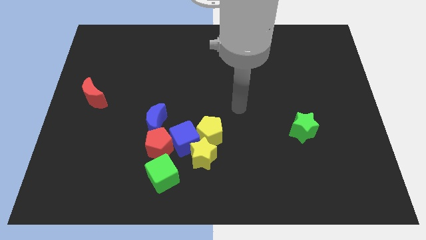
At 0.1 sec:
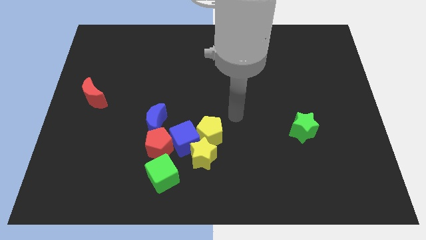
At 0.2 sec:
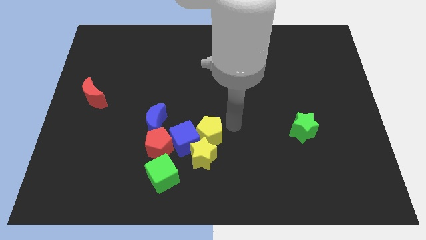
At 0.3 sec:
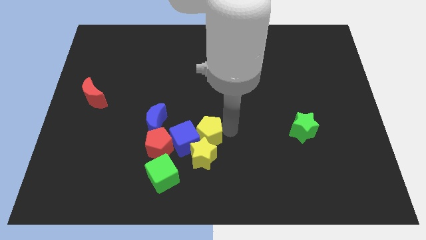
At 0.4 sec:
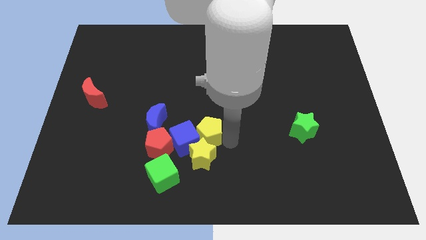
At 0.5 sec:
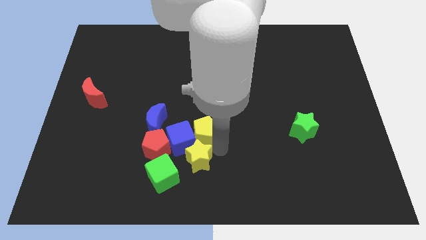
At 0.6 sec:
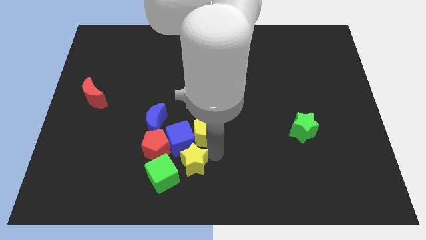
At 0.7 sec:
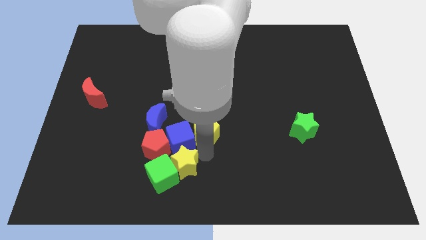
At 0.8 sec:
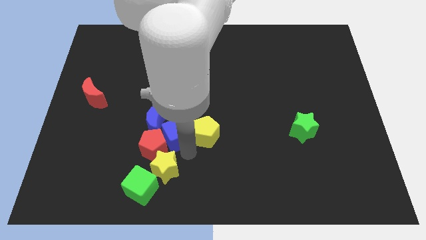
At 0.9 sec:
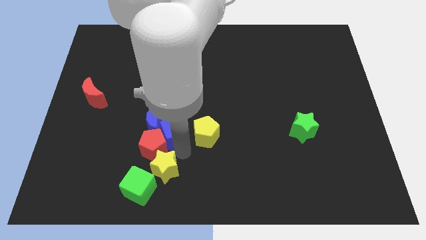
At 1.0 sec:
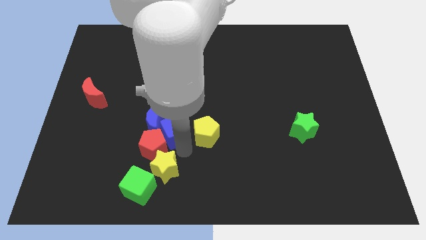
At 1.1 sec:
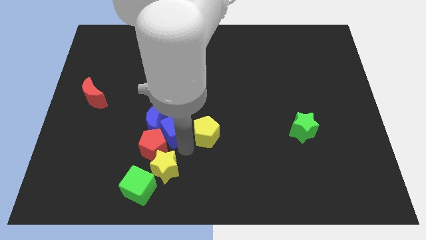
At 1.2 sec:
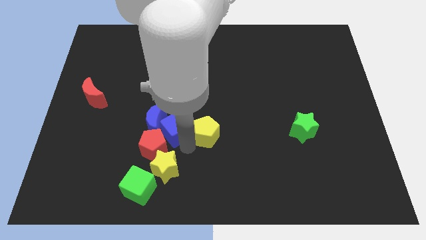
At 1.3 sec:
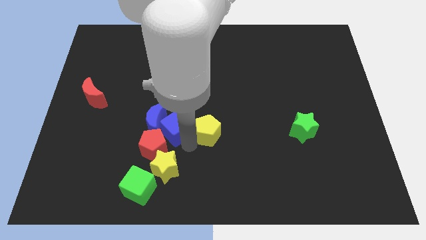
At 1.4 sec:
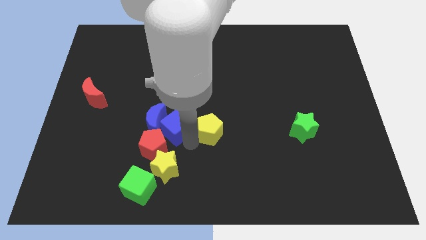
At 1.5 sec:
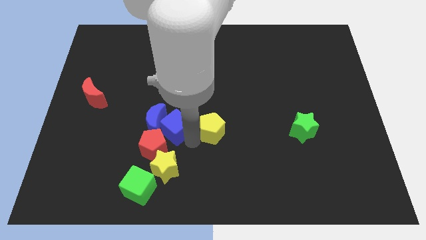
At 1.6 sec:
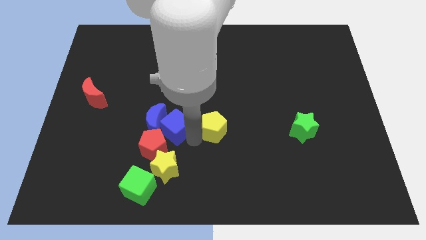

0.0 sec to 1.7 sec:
move the yellow pentagon away from the blue cube and yellow star

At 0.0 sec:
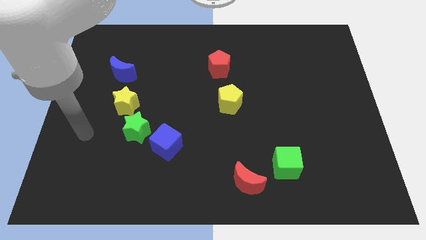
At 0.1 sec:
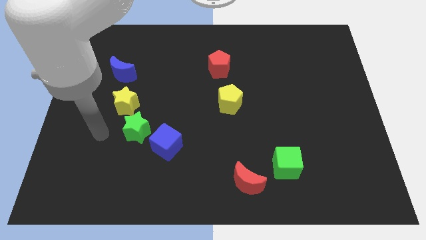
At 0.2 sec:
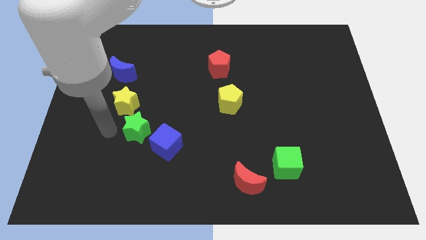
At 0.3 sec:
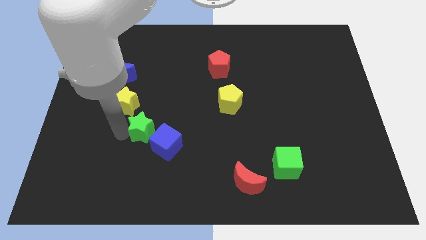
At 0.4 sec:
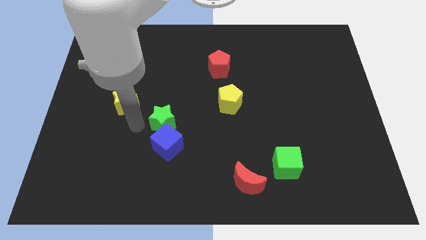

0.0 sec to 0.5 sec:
move the yellow star away from the green star

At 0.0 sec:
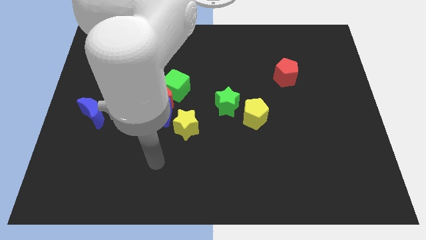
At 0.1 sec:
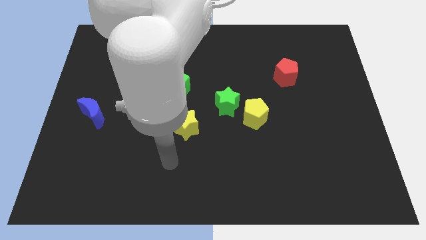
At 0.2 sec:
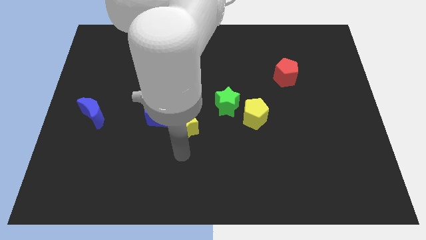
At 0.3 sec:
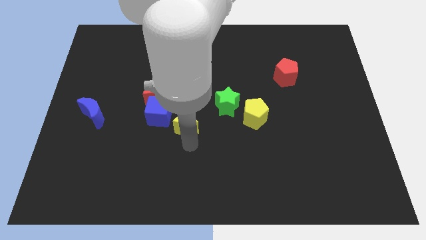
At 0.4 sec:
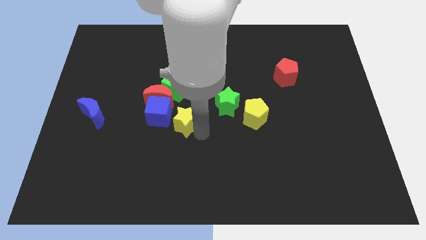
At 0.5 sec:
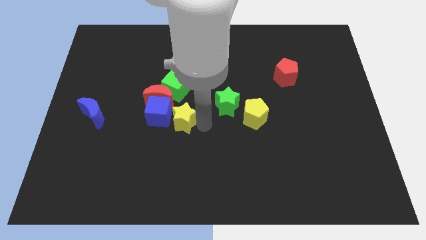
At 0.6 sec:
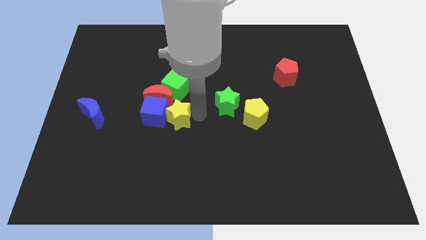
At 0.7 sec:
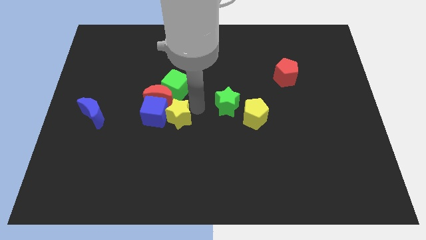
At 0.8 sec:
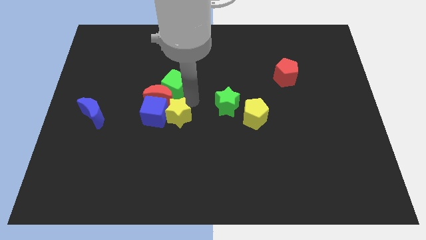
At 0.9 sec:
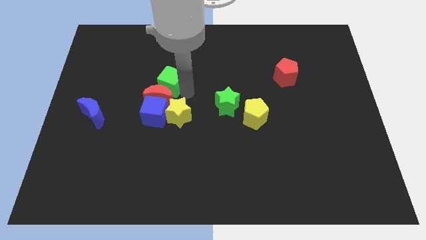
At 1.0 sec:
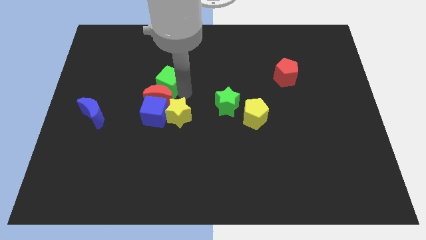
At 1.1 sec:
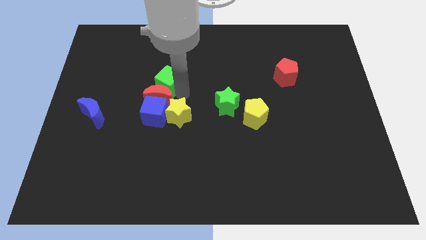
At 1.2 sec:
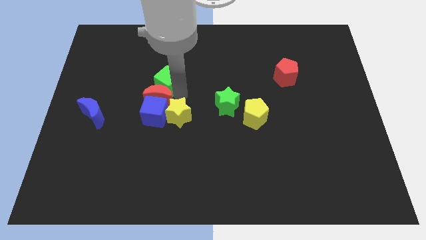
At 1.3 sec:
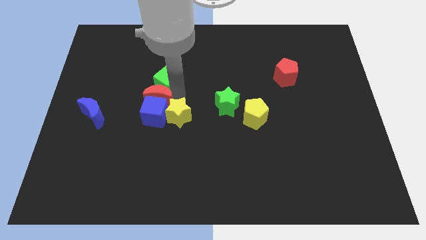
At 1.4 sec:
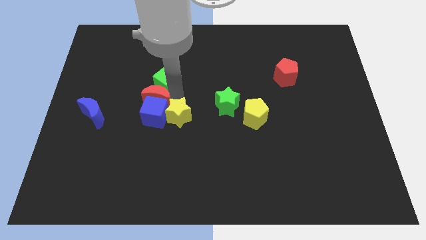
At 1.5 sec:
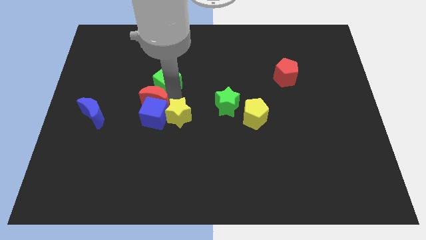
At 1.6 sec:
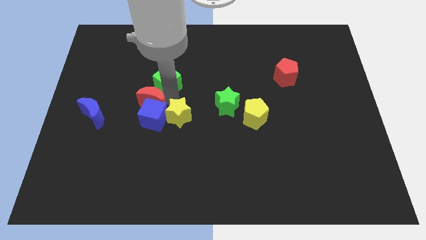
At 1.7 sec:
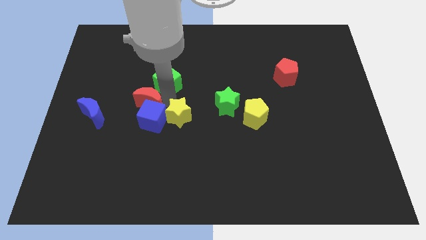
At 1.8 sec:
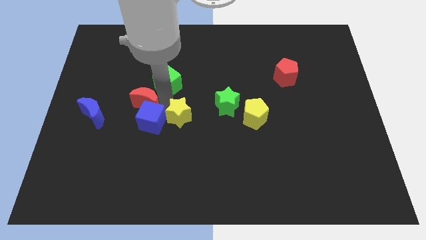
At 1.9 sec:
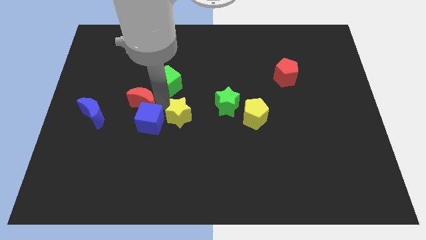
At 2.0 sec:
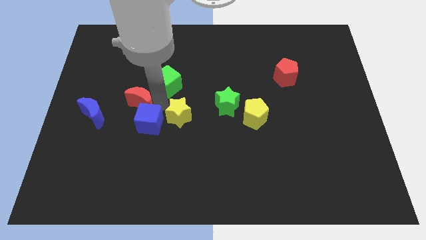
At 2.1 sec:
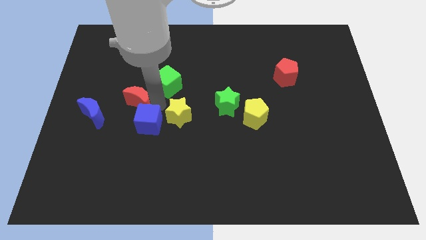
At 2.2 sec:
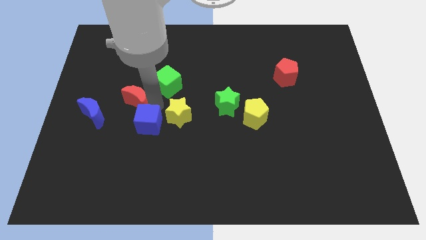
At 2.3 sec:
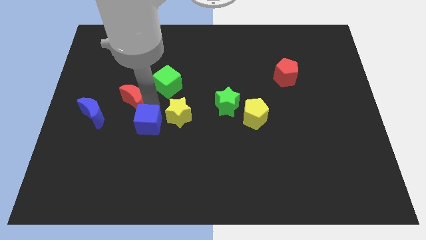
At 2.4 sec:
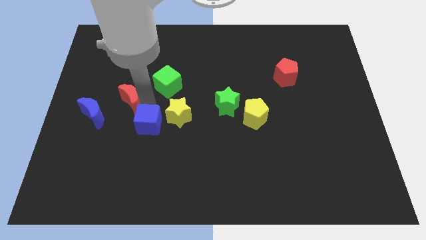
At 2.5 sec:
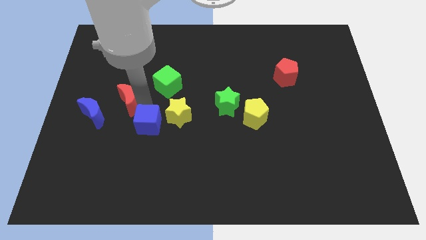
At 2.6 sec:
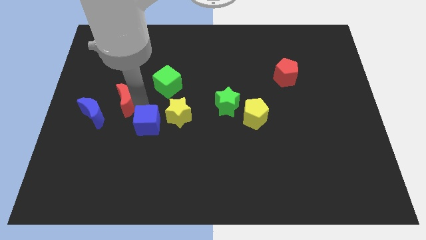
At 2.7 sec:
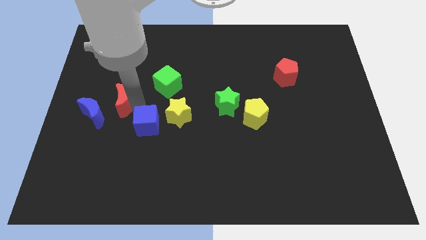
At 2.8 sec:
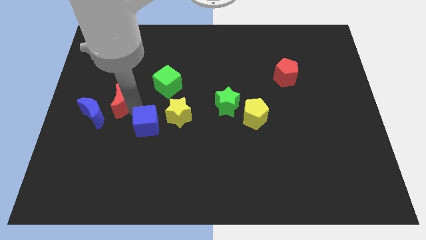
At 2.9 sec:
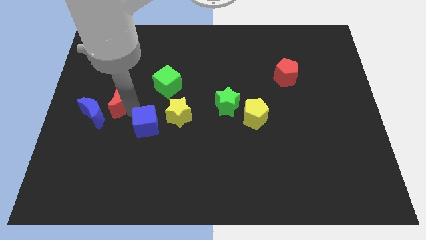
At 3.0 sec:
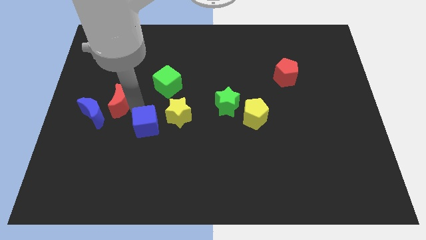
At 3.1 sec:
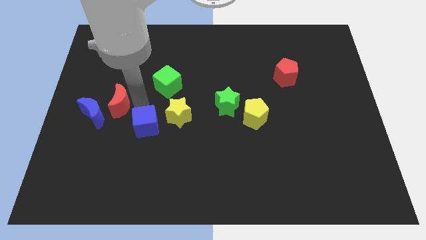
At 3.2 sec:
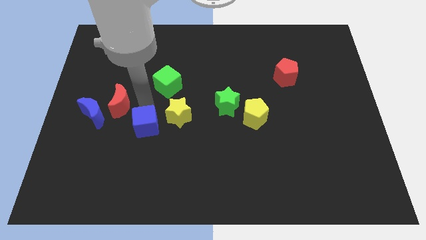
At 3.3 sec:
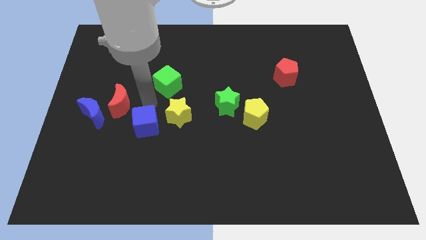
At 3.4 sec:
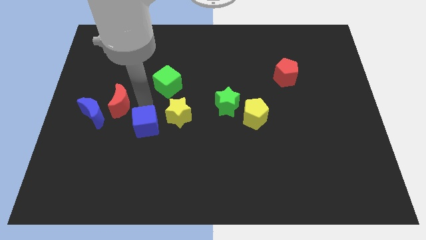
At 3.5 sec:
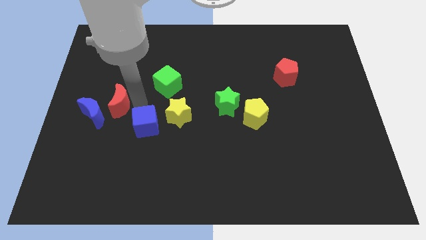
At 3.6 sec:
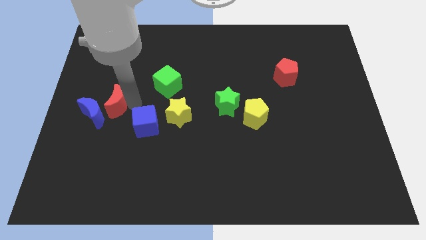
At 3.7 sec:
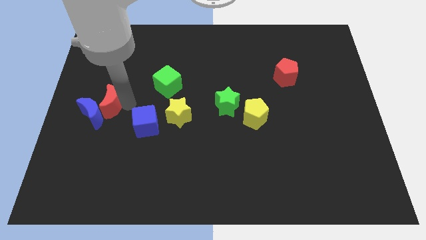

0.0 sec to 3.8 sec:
move the red moon away from the blue cube and green cube

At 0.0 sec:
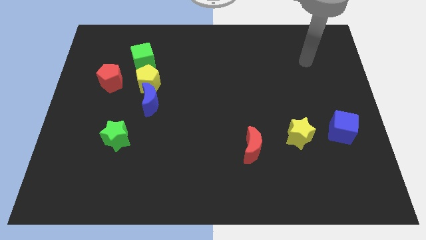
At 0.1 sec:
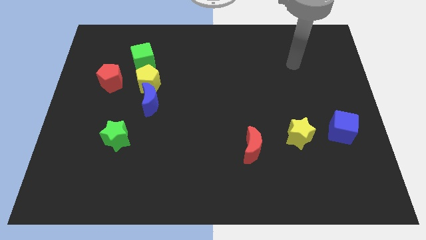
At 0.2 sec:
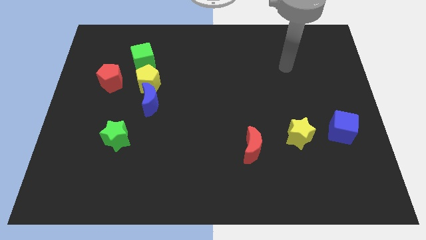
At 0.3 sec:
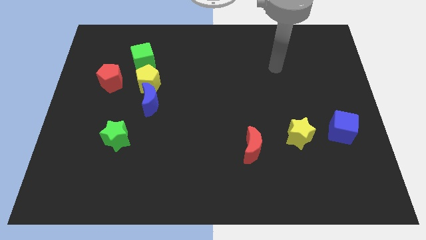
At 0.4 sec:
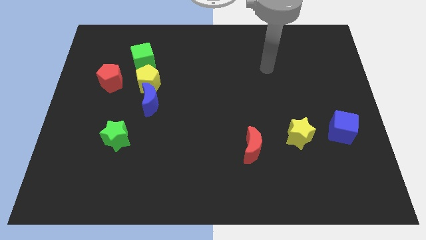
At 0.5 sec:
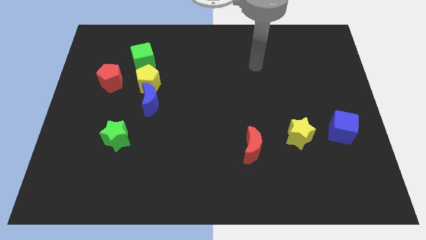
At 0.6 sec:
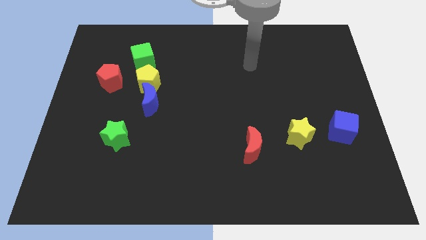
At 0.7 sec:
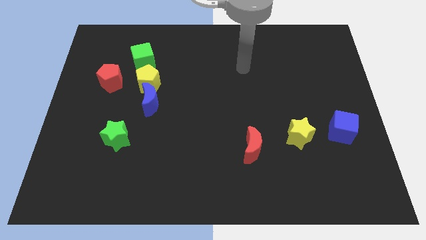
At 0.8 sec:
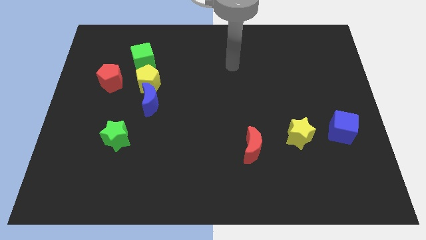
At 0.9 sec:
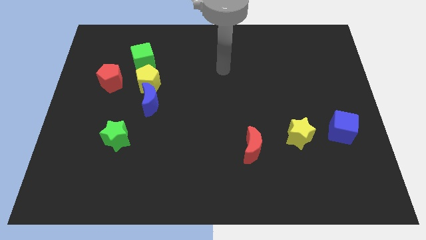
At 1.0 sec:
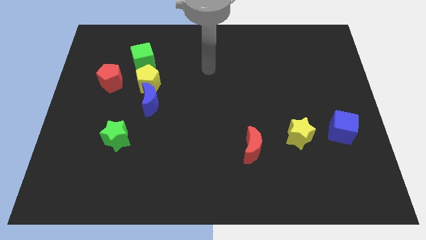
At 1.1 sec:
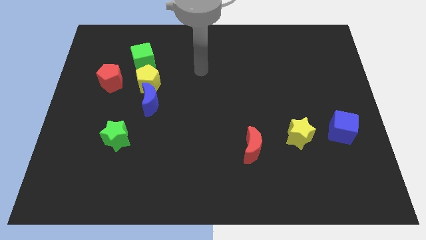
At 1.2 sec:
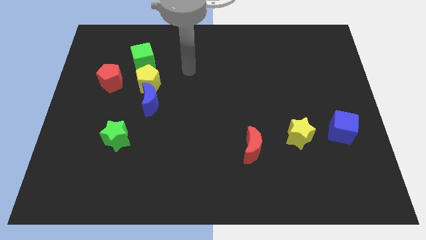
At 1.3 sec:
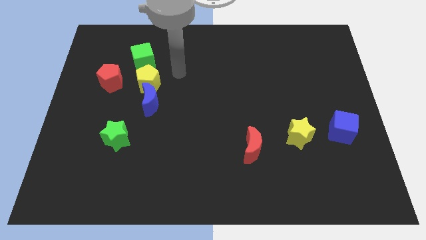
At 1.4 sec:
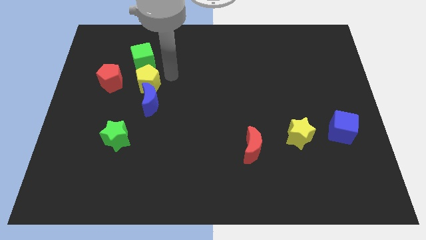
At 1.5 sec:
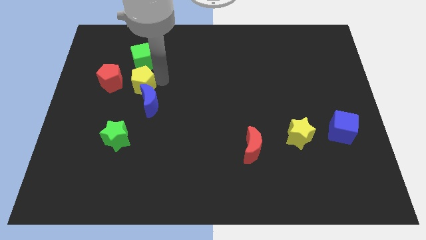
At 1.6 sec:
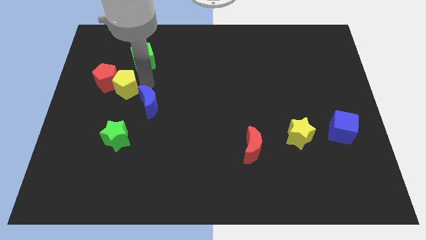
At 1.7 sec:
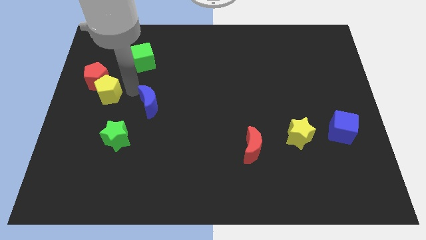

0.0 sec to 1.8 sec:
move the blue moon away from the yellow pentagon

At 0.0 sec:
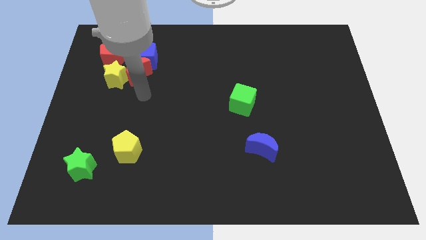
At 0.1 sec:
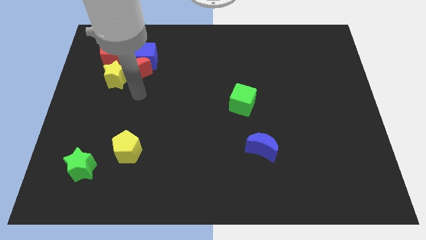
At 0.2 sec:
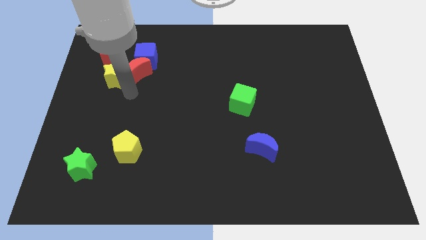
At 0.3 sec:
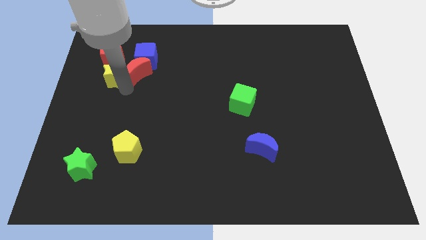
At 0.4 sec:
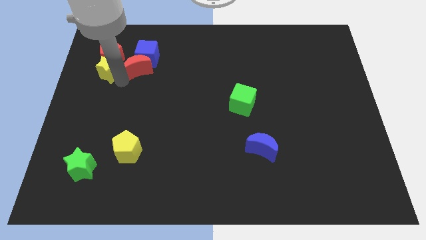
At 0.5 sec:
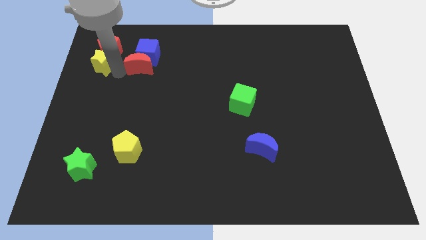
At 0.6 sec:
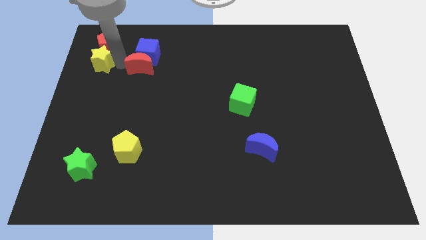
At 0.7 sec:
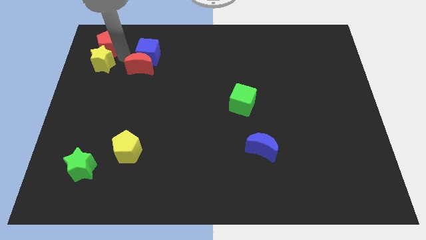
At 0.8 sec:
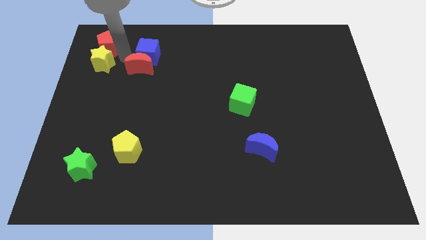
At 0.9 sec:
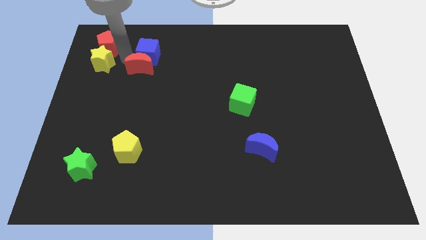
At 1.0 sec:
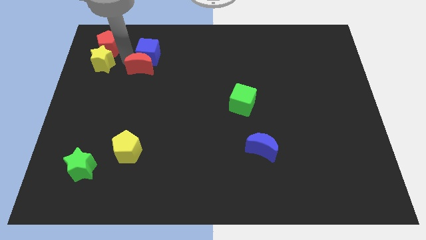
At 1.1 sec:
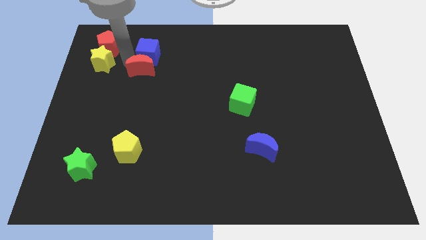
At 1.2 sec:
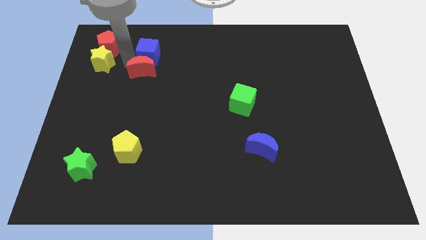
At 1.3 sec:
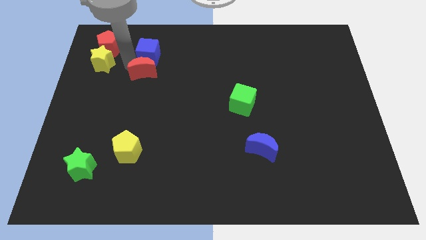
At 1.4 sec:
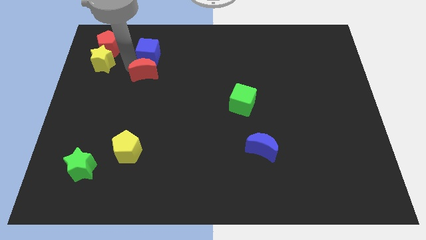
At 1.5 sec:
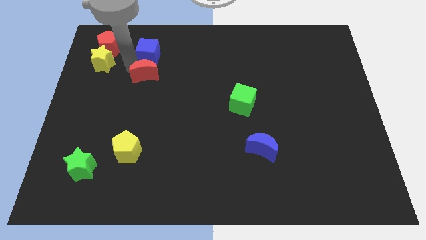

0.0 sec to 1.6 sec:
separate the red moon from the clump

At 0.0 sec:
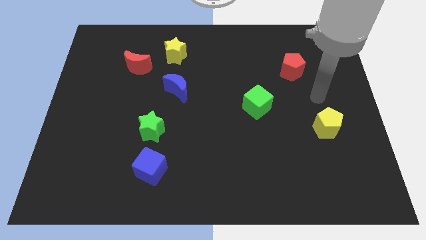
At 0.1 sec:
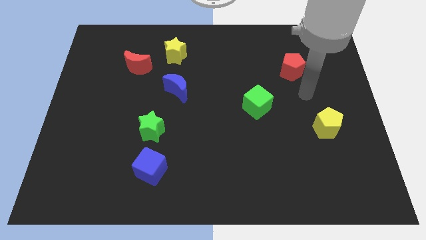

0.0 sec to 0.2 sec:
move the blue cube away from the green star
